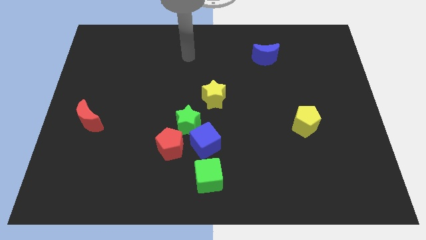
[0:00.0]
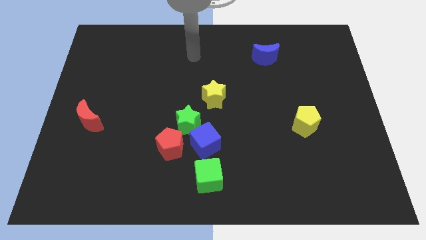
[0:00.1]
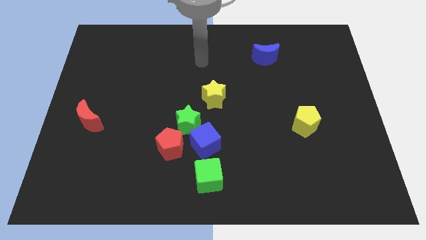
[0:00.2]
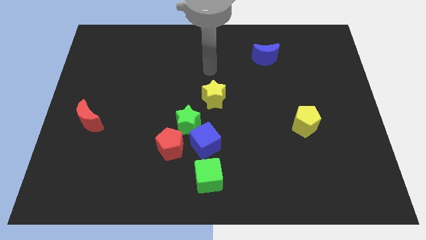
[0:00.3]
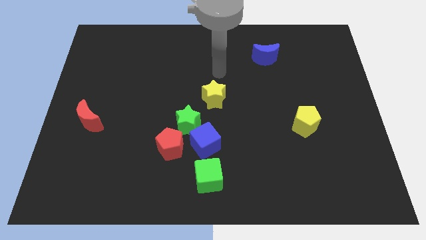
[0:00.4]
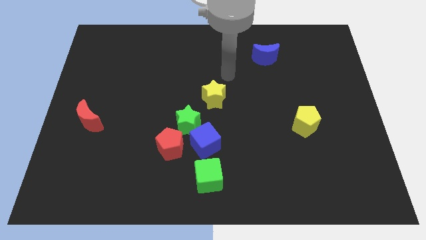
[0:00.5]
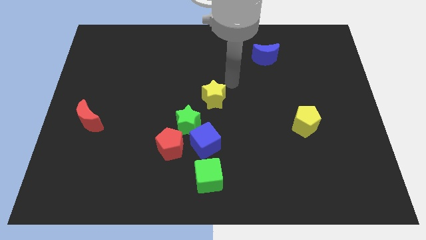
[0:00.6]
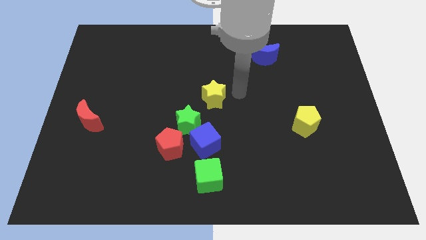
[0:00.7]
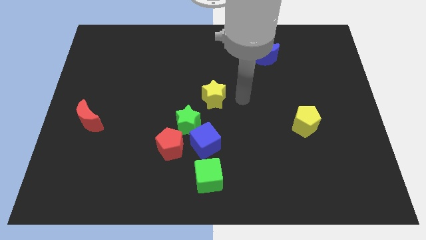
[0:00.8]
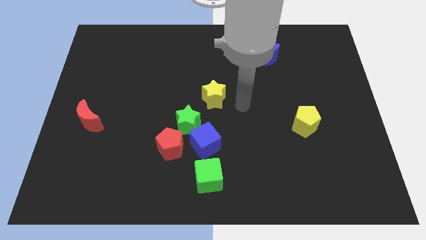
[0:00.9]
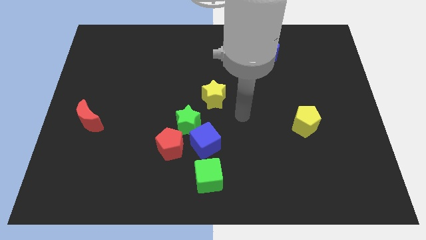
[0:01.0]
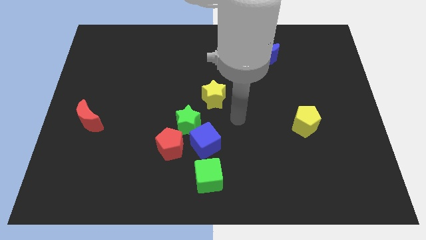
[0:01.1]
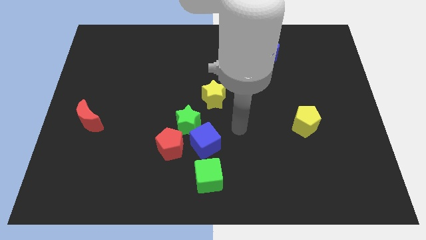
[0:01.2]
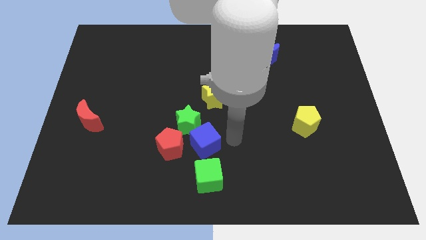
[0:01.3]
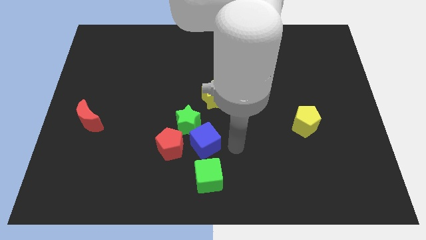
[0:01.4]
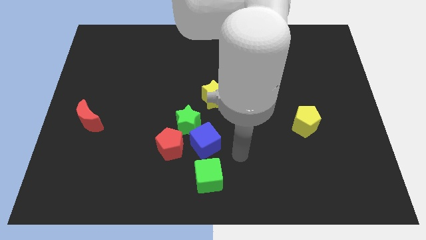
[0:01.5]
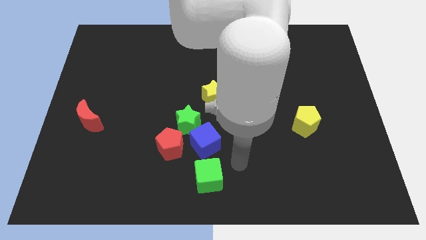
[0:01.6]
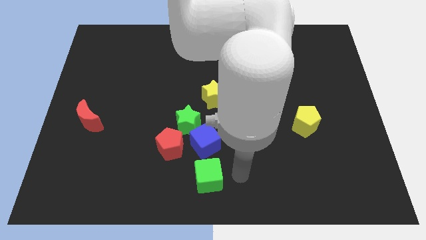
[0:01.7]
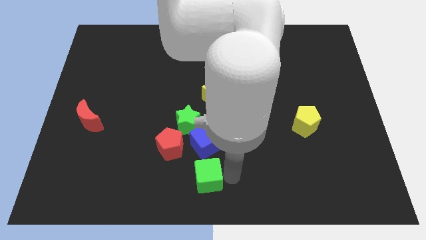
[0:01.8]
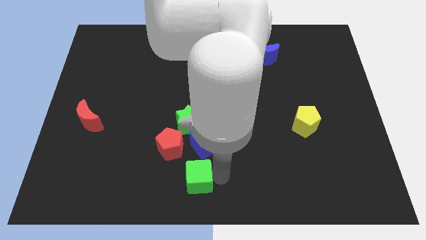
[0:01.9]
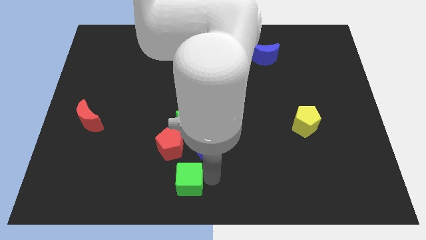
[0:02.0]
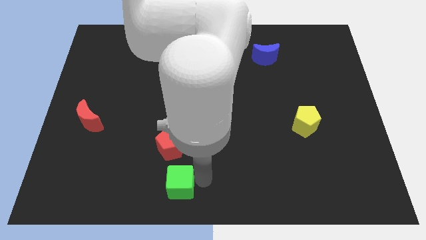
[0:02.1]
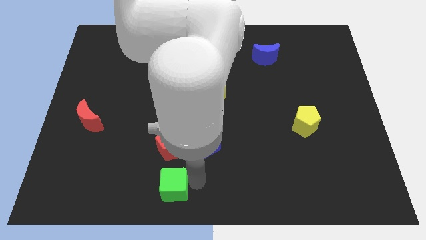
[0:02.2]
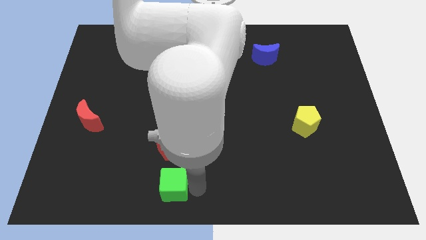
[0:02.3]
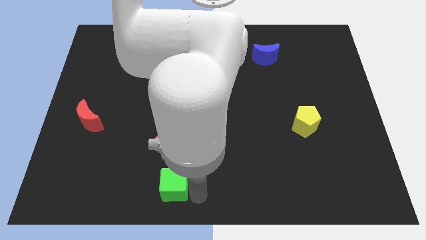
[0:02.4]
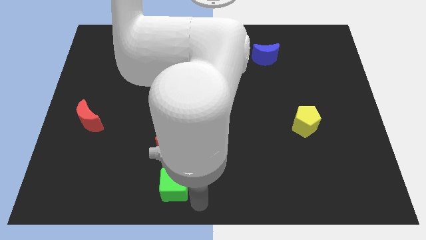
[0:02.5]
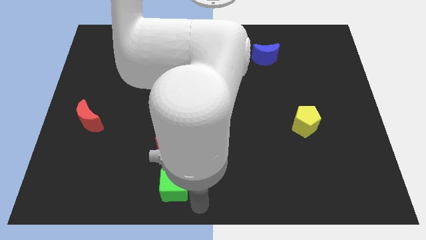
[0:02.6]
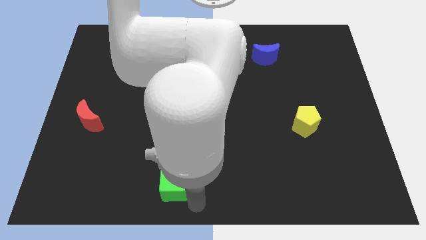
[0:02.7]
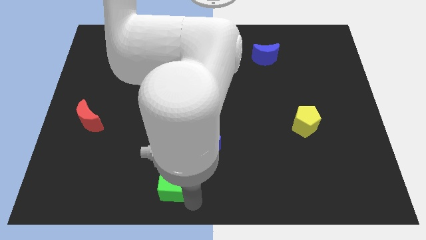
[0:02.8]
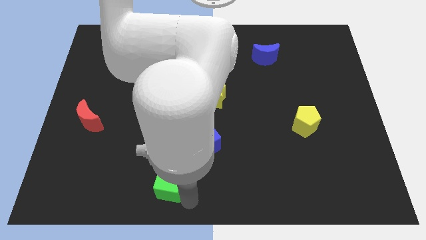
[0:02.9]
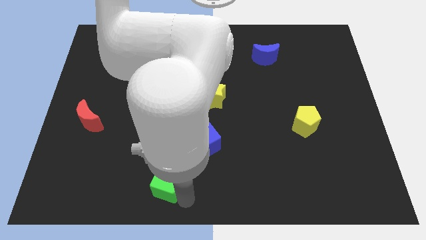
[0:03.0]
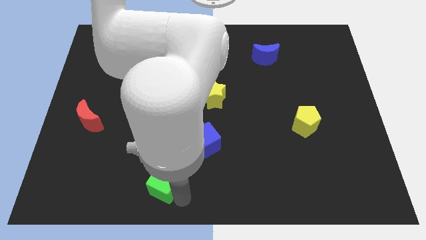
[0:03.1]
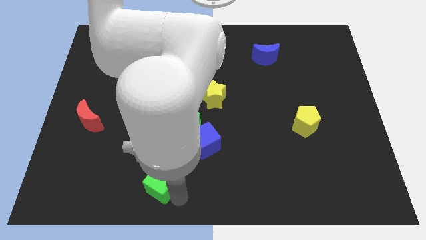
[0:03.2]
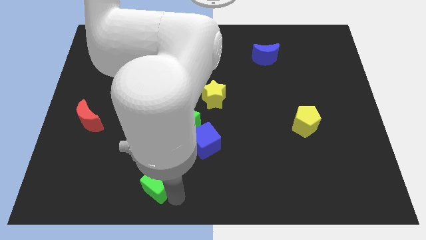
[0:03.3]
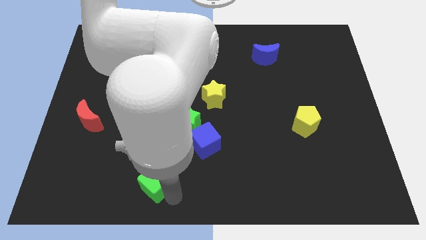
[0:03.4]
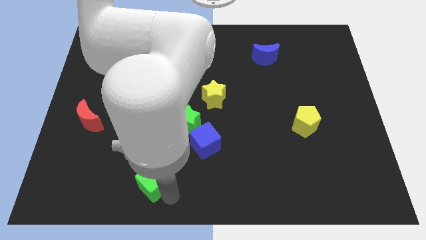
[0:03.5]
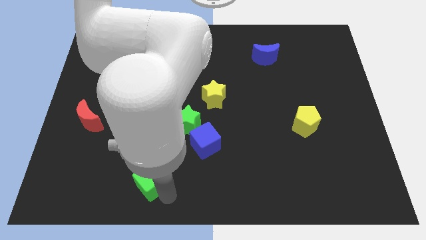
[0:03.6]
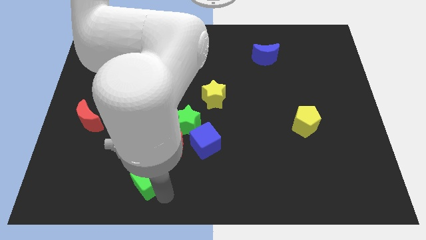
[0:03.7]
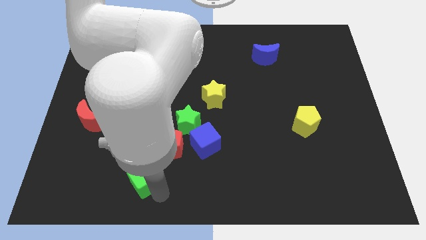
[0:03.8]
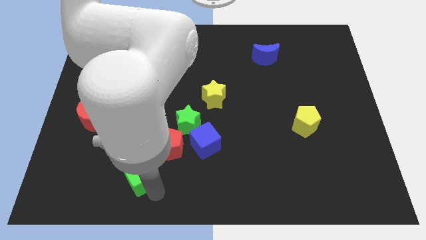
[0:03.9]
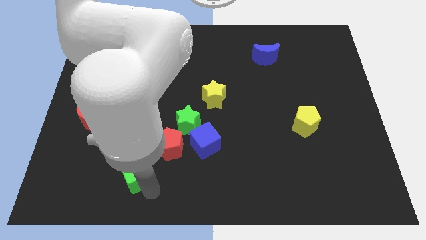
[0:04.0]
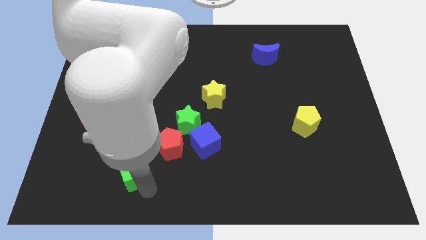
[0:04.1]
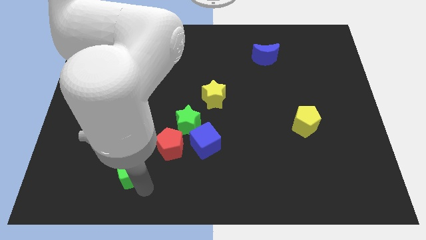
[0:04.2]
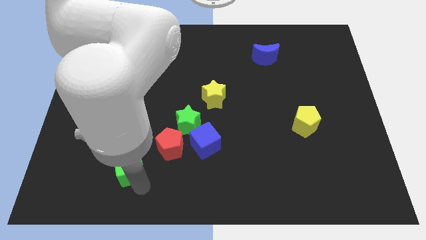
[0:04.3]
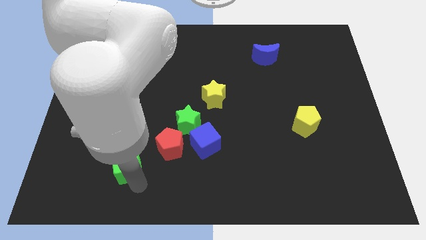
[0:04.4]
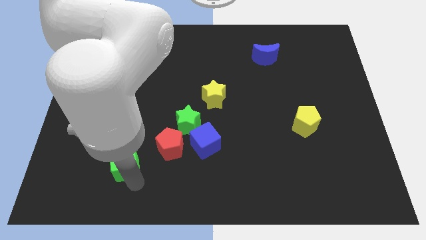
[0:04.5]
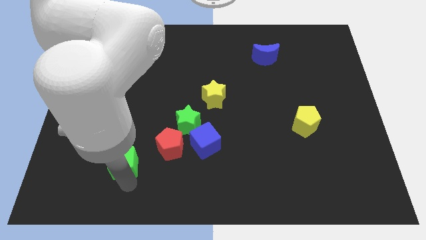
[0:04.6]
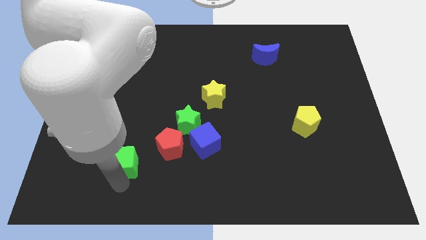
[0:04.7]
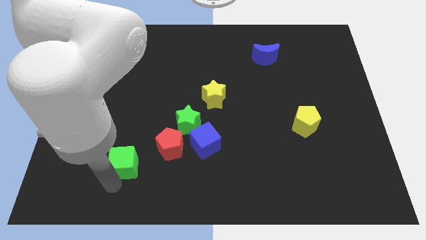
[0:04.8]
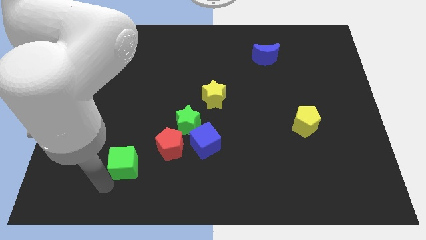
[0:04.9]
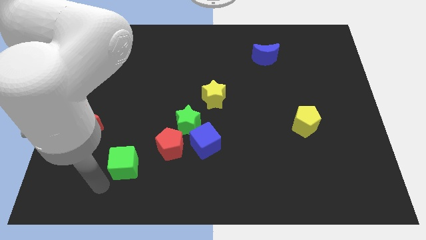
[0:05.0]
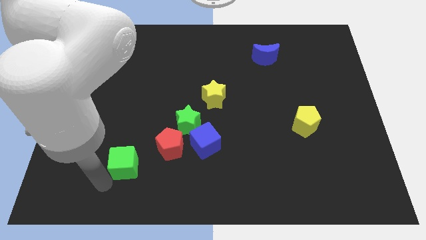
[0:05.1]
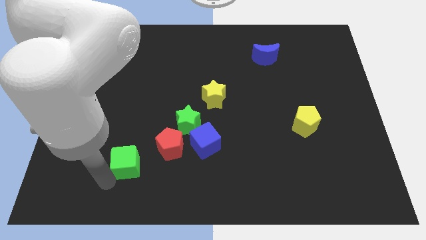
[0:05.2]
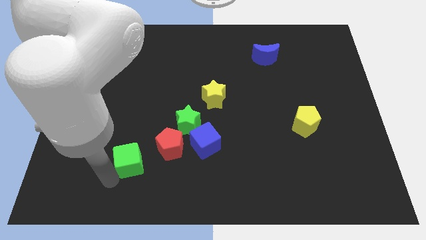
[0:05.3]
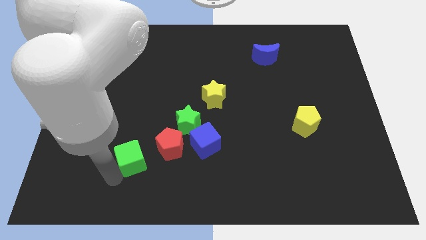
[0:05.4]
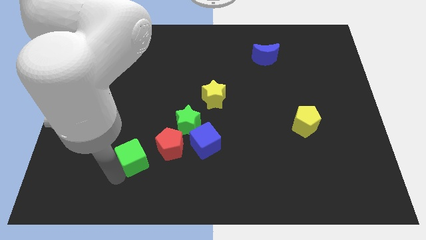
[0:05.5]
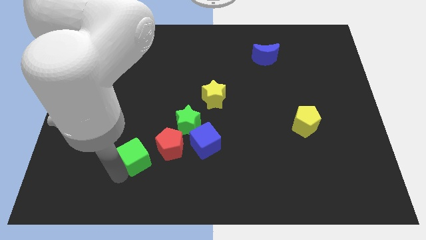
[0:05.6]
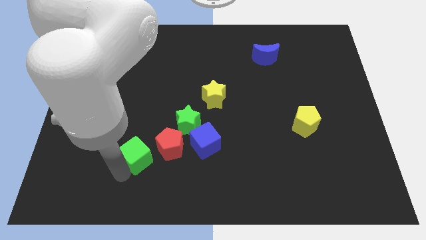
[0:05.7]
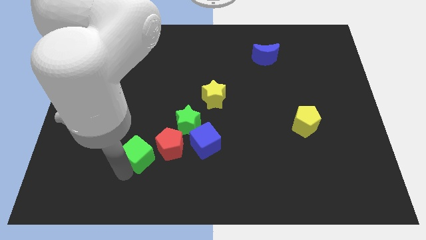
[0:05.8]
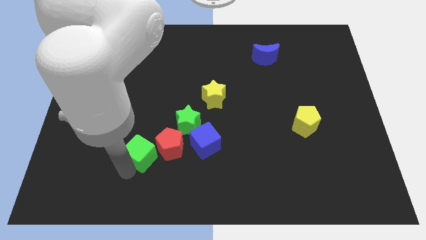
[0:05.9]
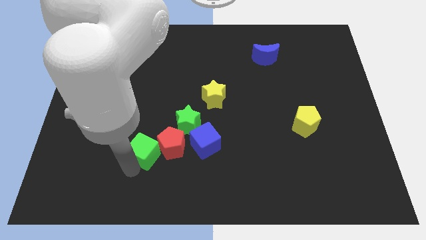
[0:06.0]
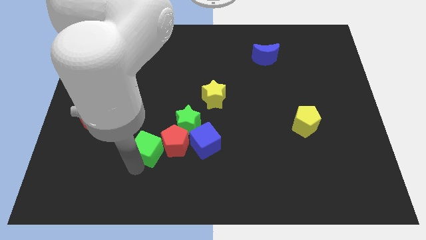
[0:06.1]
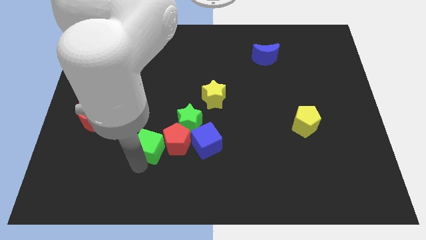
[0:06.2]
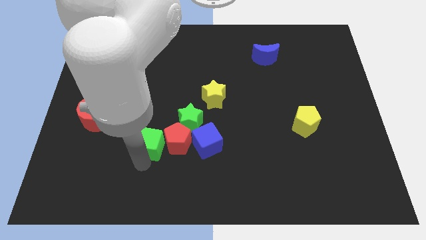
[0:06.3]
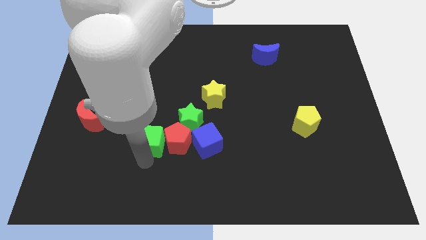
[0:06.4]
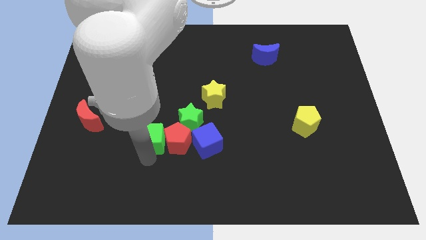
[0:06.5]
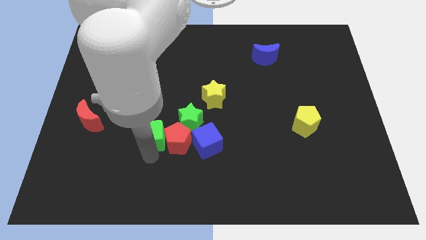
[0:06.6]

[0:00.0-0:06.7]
slide the green cube to the left side of the green star
